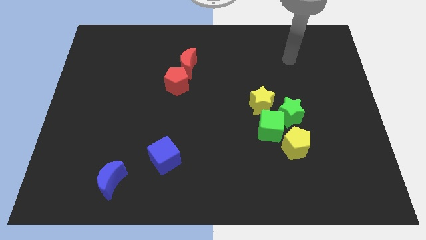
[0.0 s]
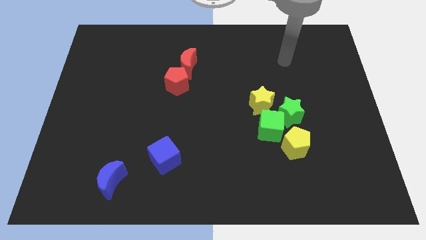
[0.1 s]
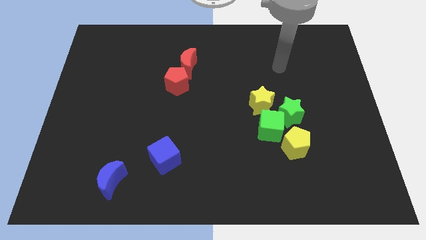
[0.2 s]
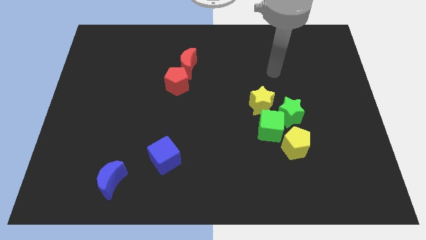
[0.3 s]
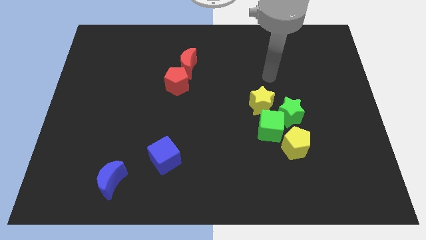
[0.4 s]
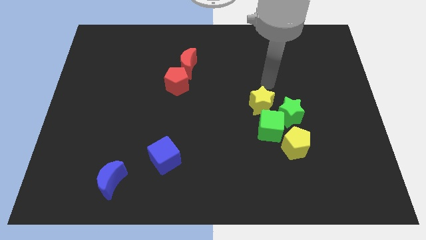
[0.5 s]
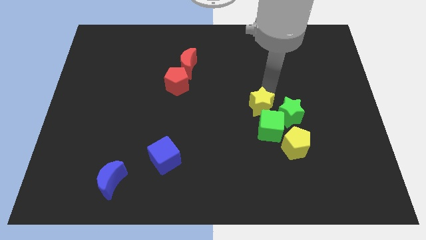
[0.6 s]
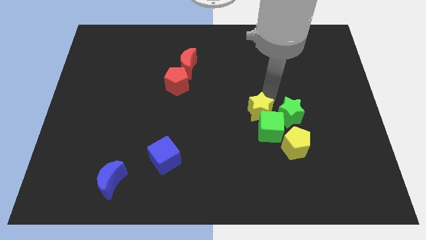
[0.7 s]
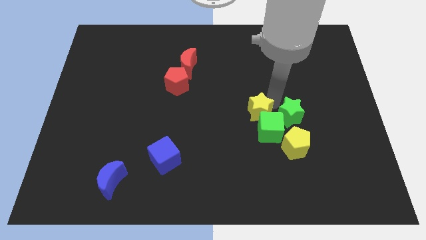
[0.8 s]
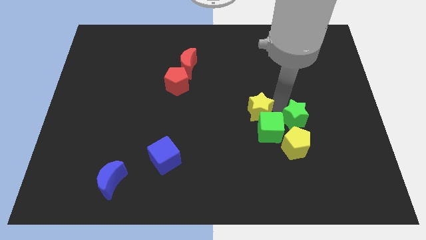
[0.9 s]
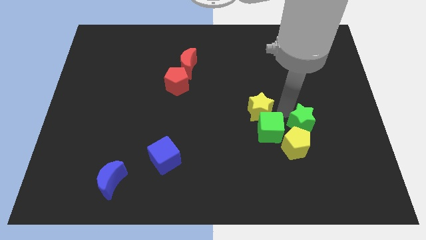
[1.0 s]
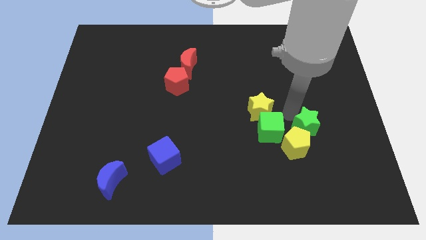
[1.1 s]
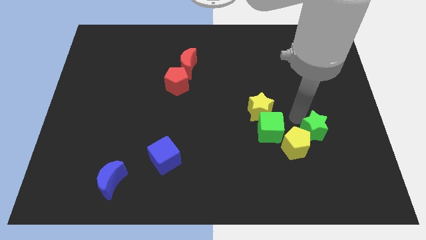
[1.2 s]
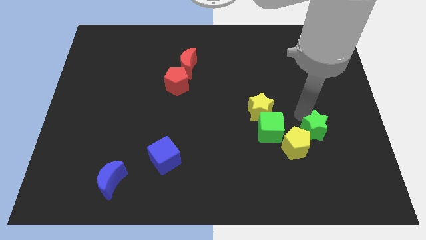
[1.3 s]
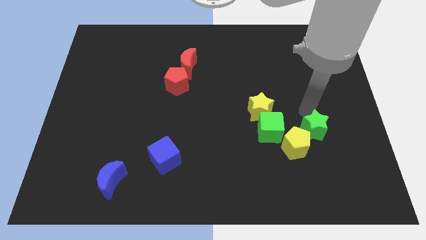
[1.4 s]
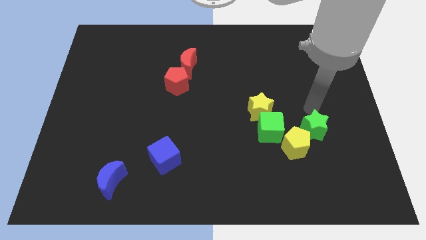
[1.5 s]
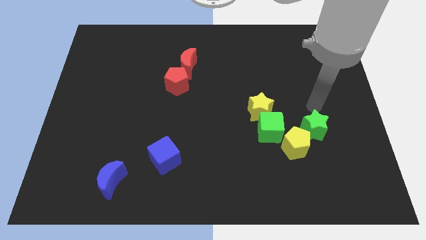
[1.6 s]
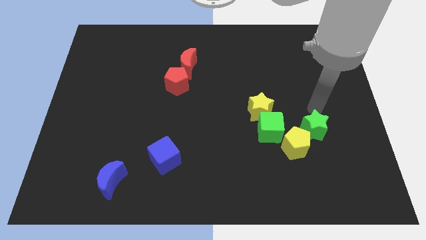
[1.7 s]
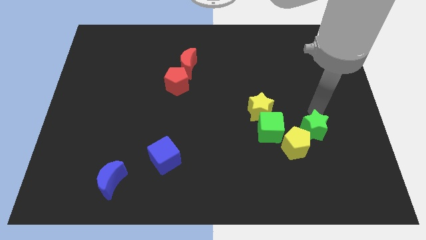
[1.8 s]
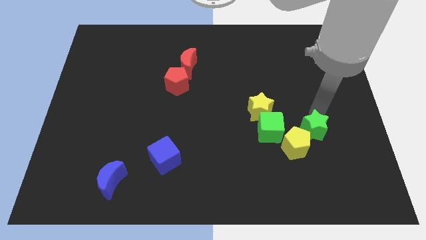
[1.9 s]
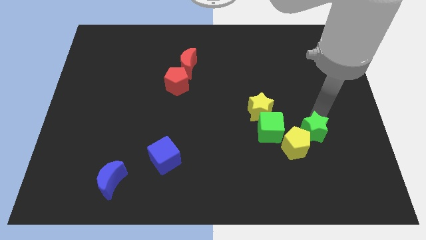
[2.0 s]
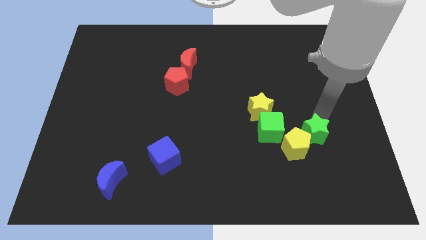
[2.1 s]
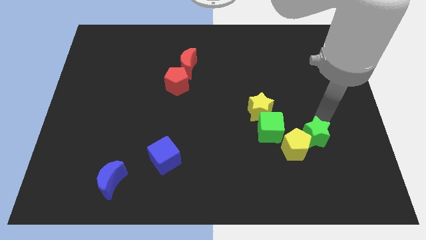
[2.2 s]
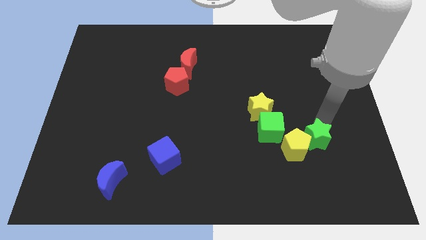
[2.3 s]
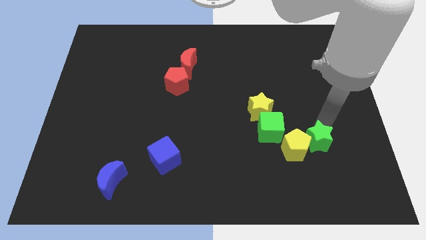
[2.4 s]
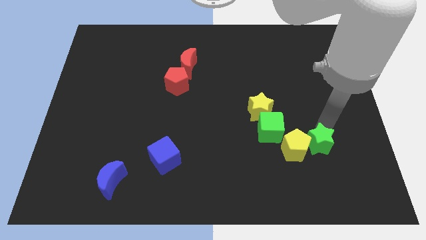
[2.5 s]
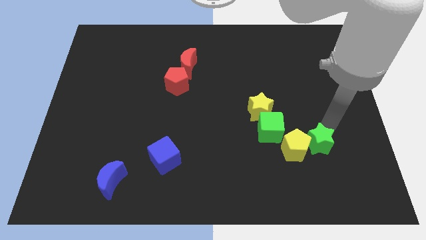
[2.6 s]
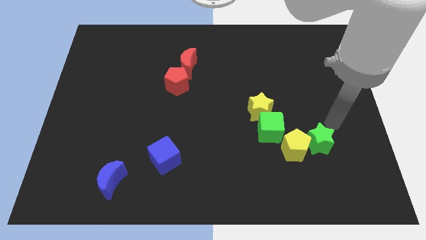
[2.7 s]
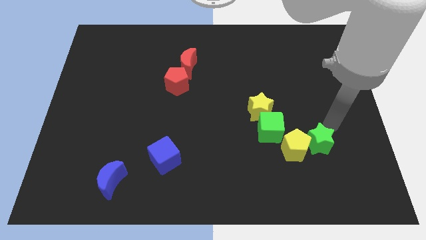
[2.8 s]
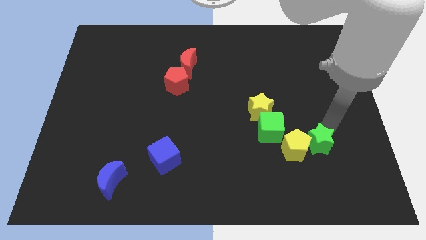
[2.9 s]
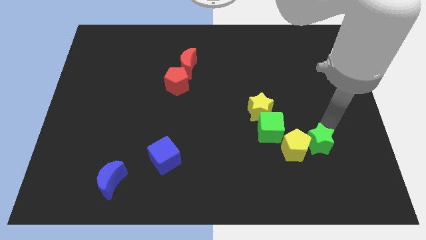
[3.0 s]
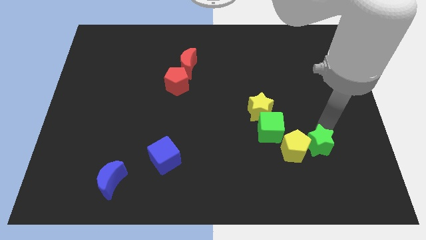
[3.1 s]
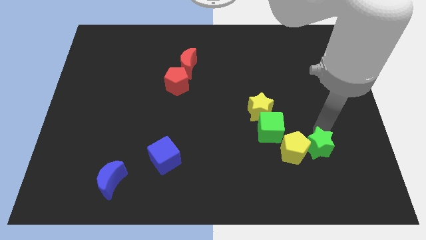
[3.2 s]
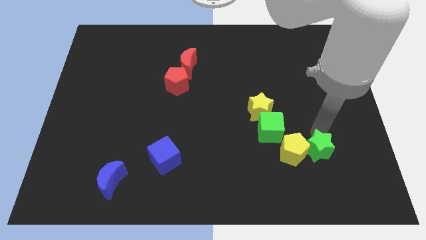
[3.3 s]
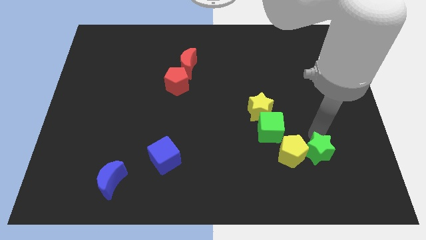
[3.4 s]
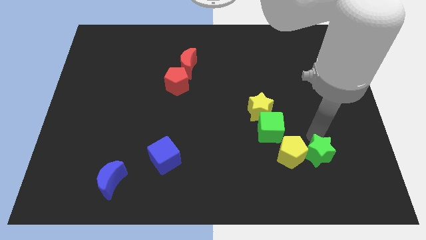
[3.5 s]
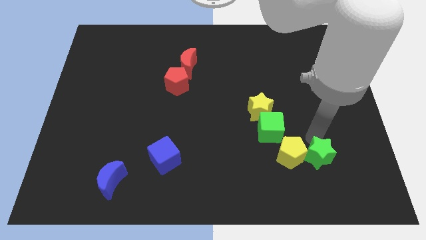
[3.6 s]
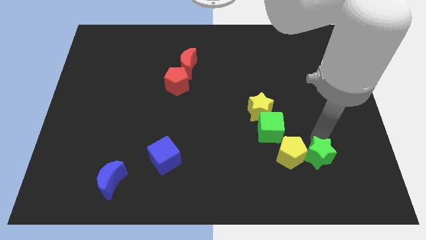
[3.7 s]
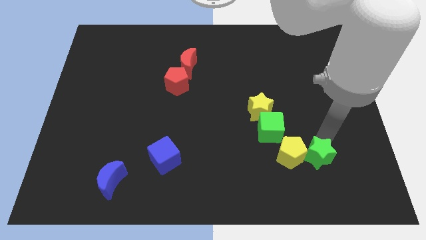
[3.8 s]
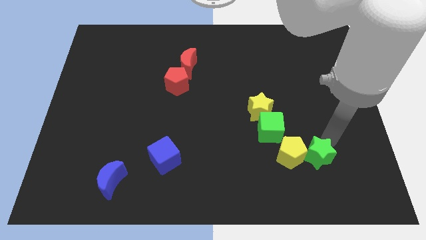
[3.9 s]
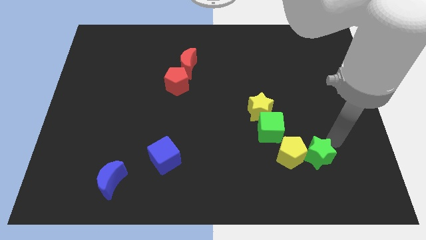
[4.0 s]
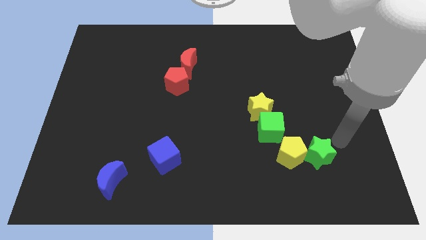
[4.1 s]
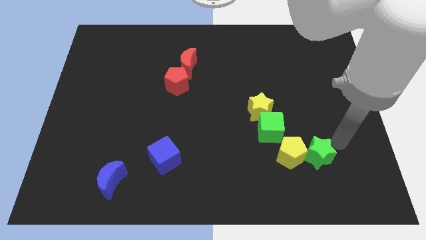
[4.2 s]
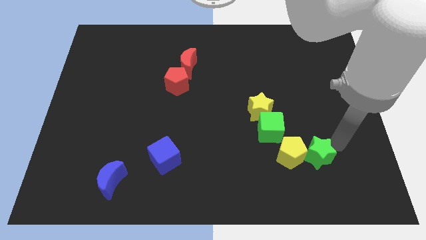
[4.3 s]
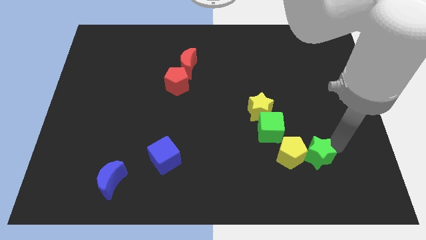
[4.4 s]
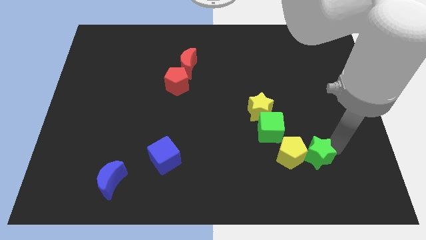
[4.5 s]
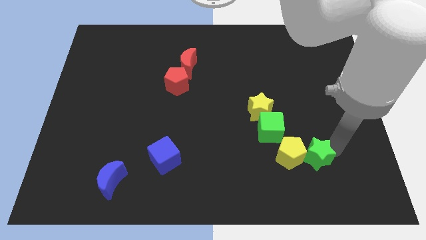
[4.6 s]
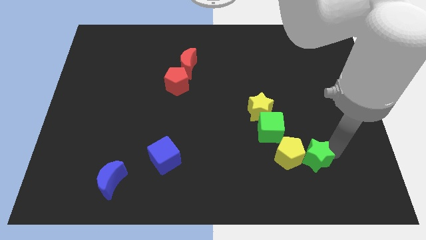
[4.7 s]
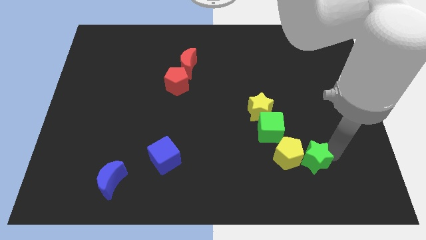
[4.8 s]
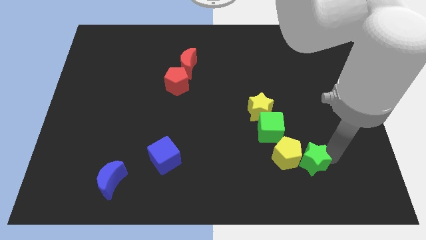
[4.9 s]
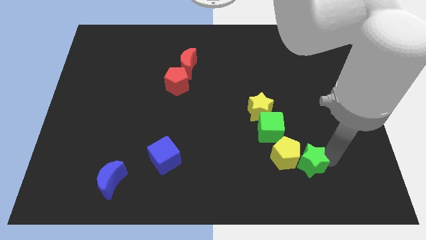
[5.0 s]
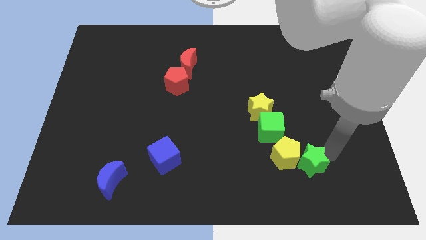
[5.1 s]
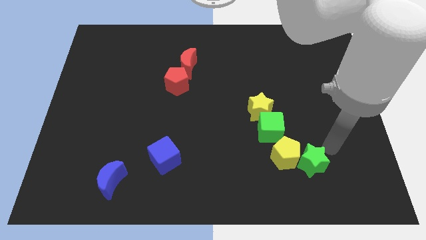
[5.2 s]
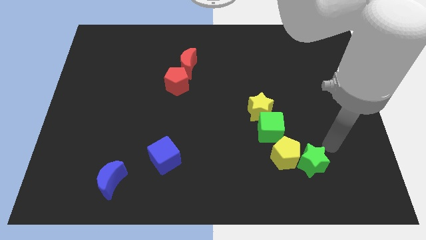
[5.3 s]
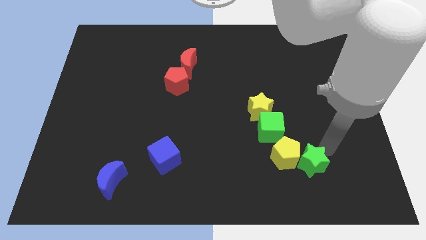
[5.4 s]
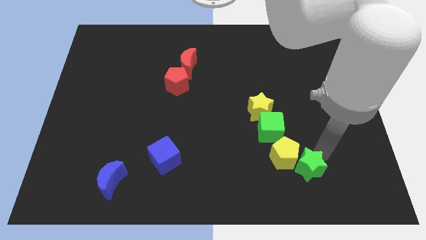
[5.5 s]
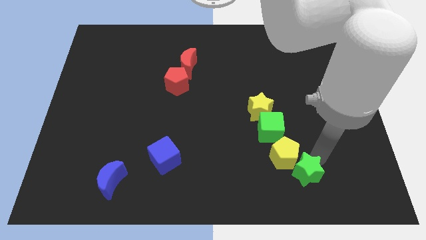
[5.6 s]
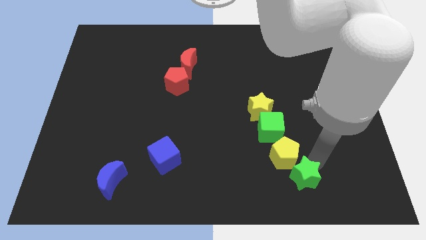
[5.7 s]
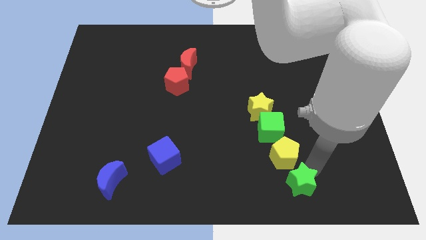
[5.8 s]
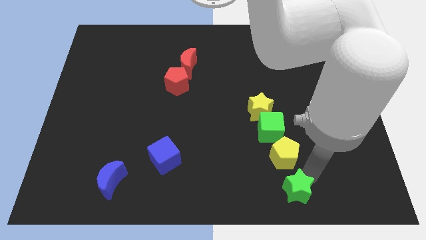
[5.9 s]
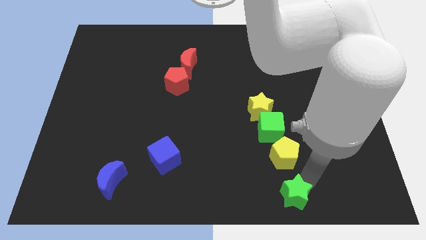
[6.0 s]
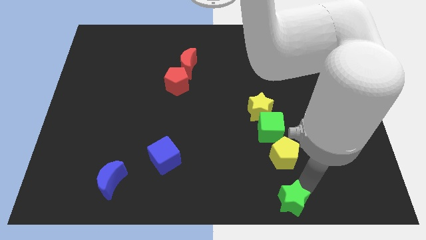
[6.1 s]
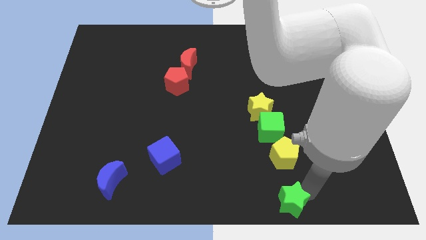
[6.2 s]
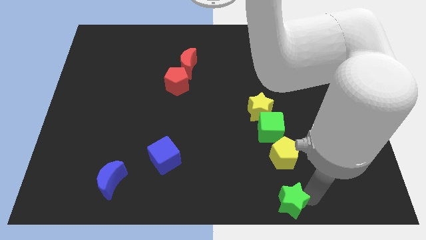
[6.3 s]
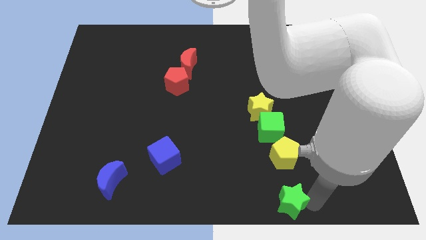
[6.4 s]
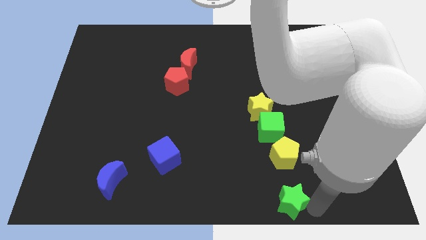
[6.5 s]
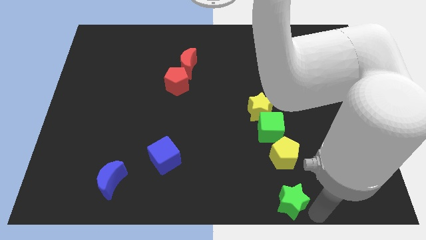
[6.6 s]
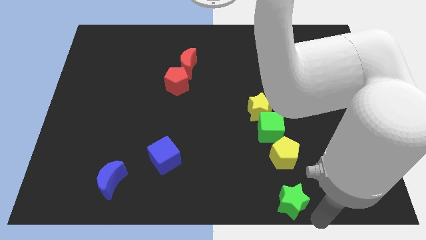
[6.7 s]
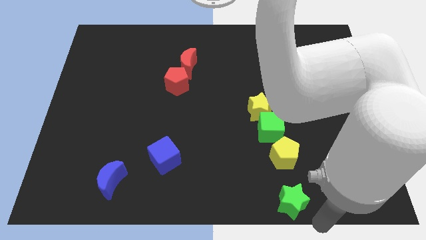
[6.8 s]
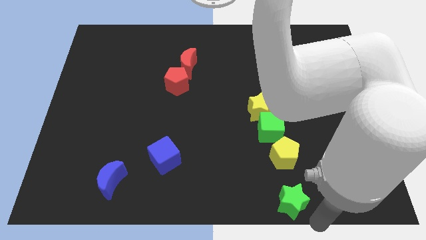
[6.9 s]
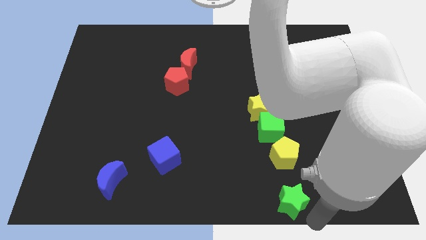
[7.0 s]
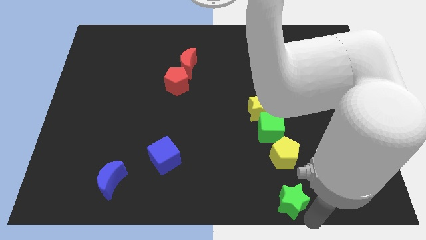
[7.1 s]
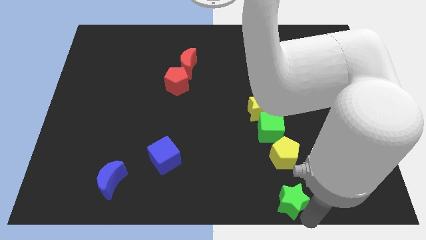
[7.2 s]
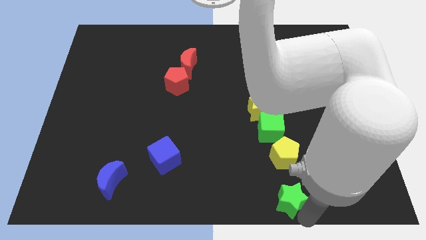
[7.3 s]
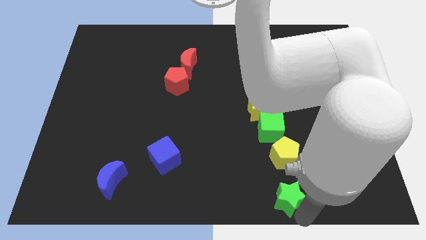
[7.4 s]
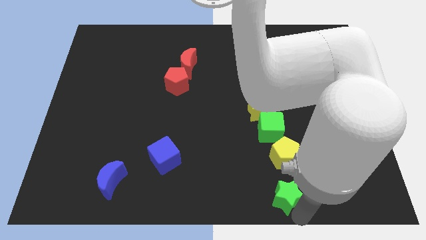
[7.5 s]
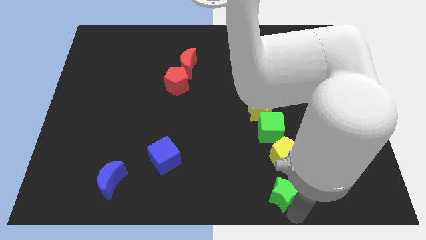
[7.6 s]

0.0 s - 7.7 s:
move the green star to the bottom
